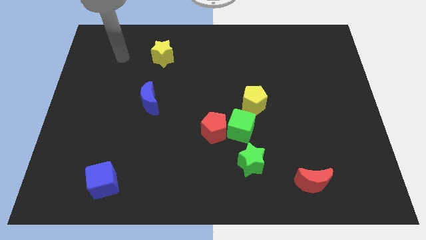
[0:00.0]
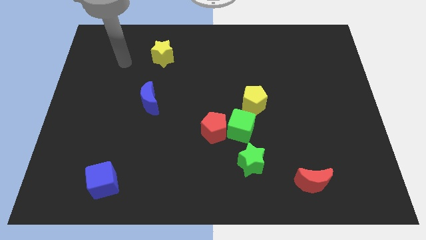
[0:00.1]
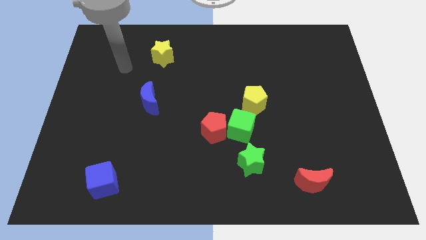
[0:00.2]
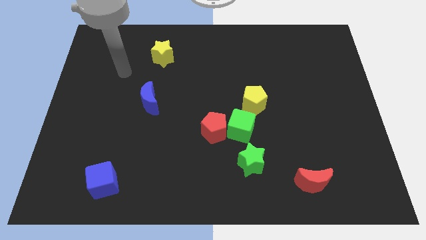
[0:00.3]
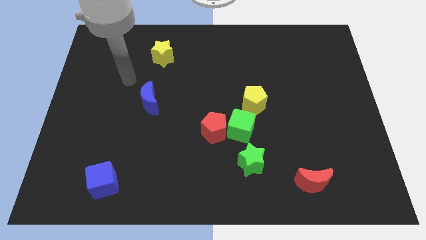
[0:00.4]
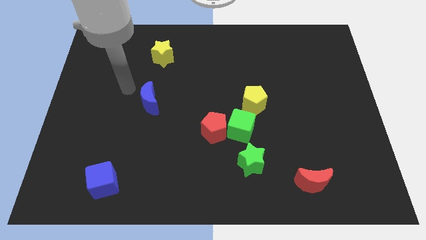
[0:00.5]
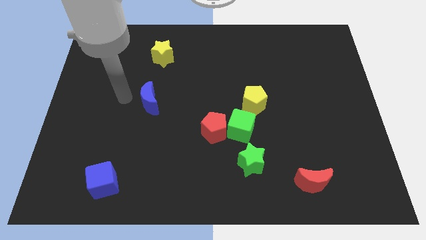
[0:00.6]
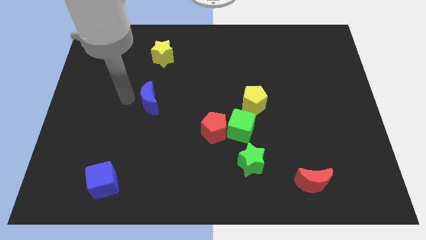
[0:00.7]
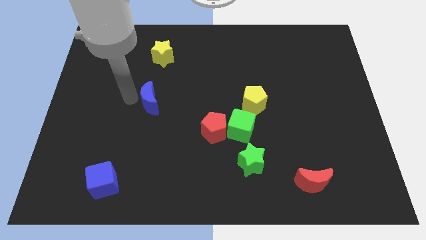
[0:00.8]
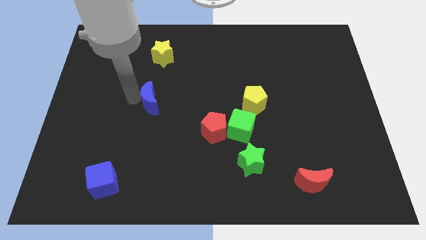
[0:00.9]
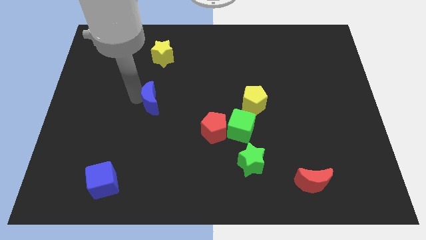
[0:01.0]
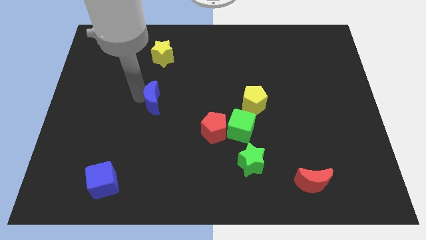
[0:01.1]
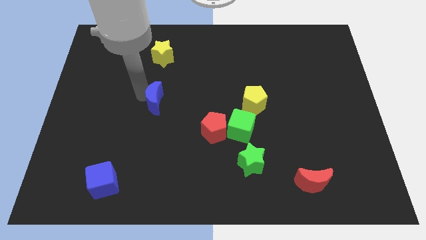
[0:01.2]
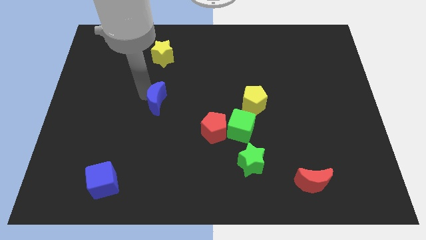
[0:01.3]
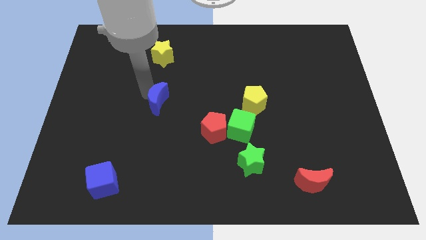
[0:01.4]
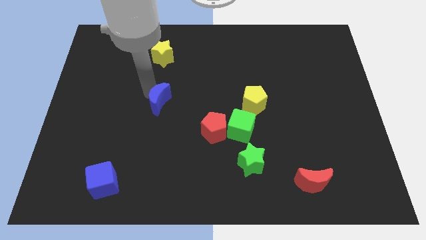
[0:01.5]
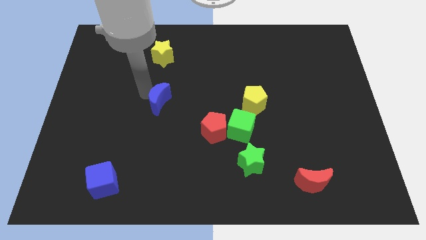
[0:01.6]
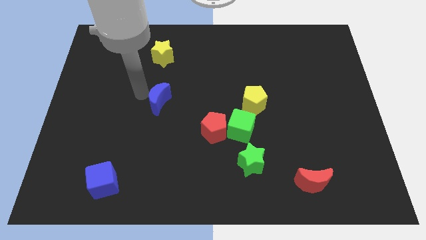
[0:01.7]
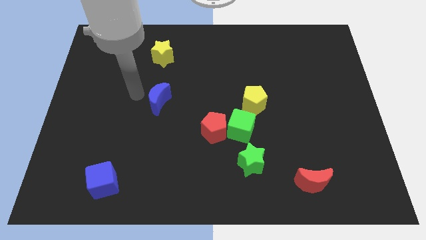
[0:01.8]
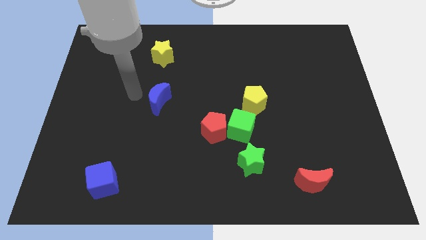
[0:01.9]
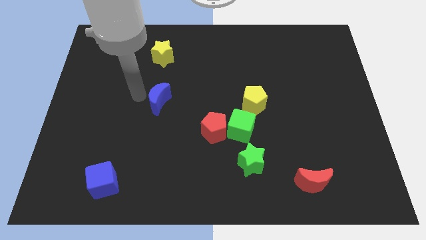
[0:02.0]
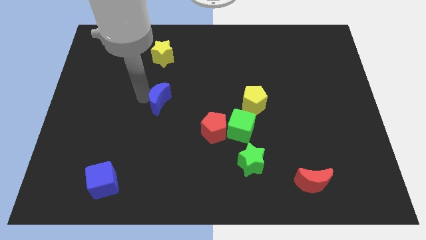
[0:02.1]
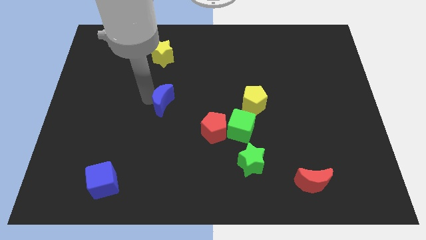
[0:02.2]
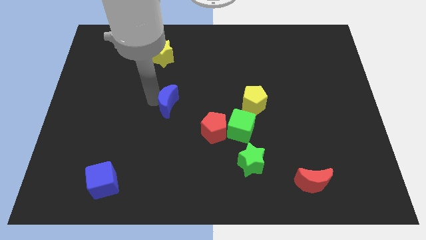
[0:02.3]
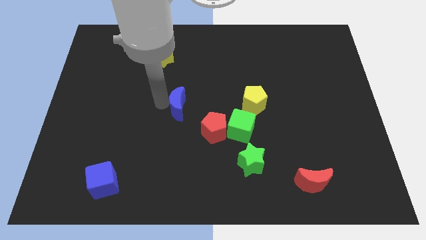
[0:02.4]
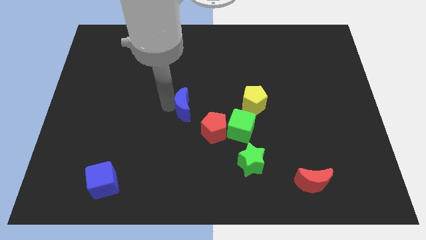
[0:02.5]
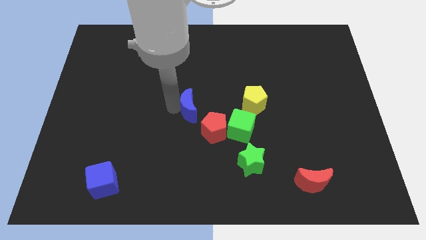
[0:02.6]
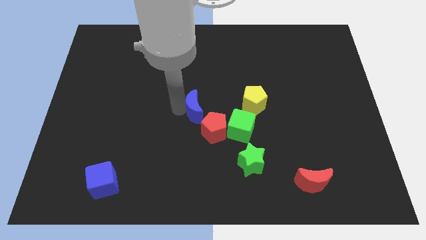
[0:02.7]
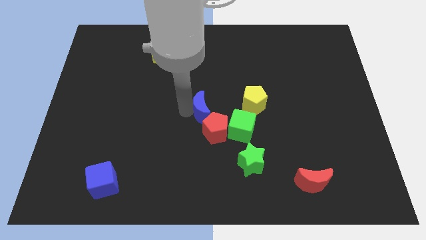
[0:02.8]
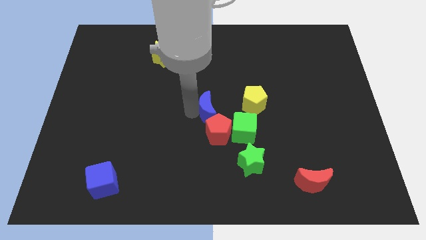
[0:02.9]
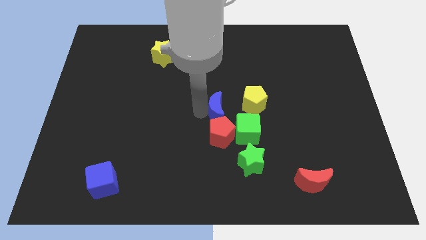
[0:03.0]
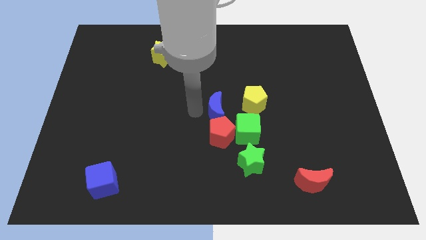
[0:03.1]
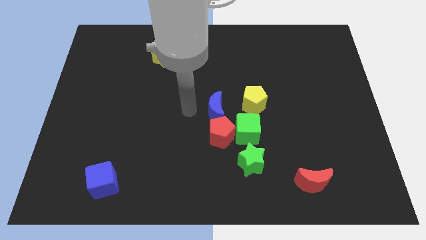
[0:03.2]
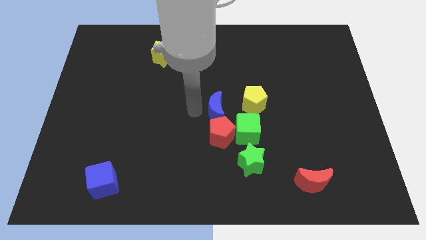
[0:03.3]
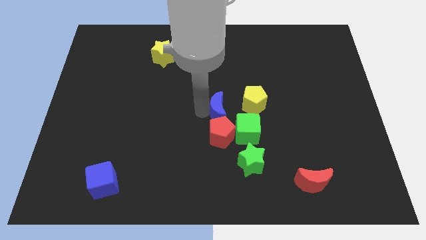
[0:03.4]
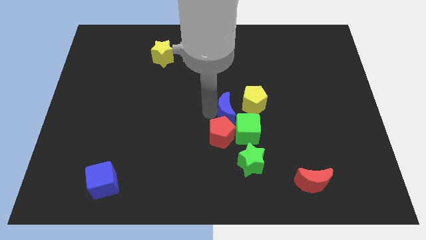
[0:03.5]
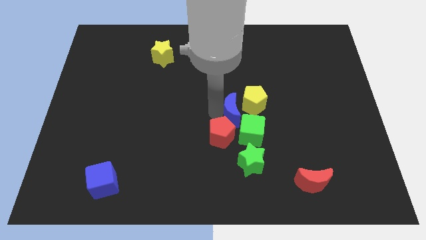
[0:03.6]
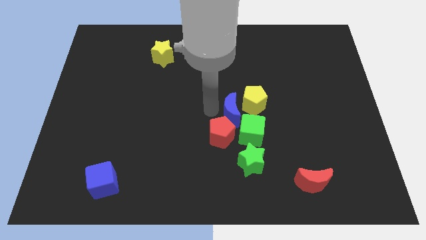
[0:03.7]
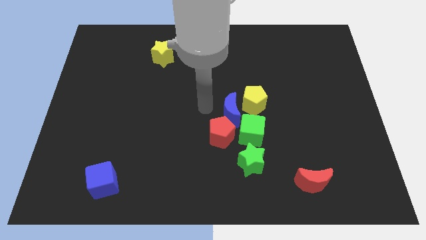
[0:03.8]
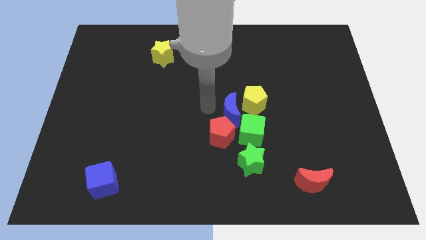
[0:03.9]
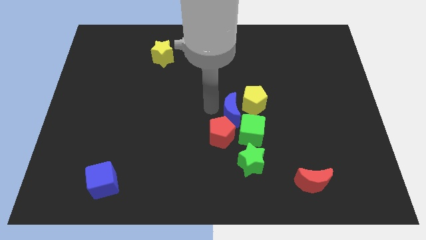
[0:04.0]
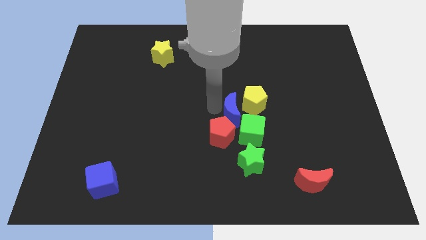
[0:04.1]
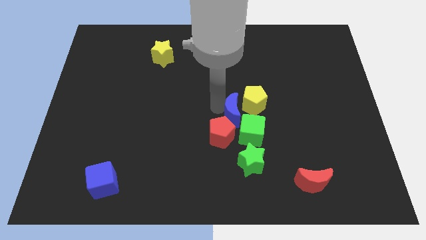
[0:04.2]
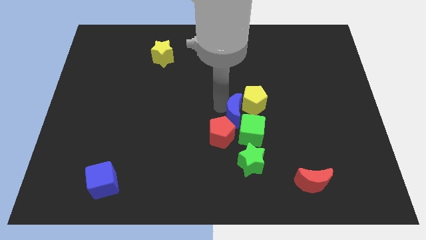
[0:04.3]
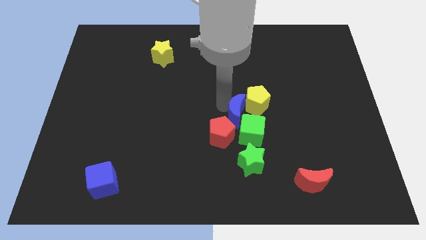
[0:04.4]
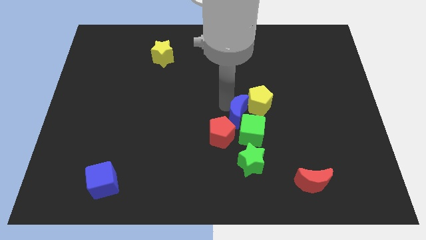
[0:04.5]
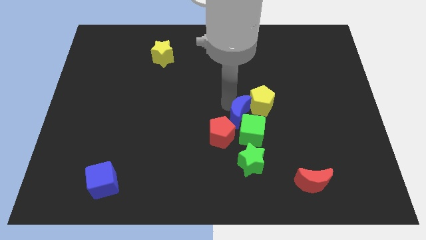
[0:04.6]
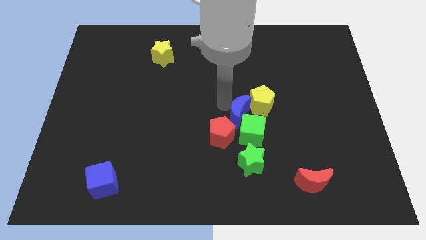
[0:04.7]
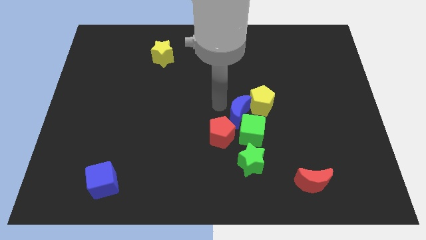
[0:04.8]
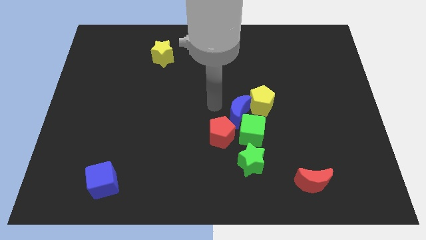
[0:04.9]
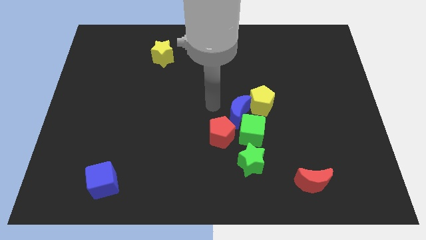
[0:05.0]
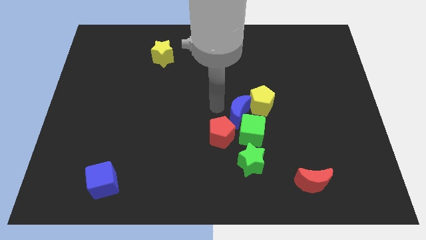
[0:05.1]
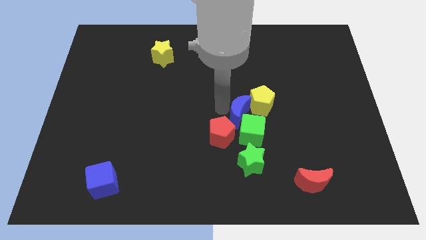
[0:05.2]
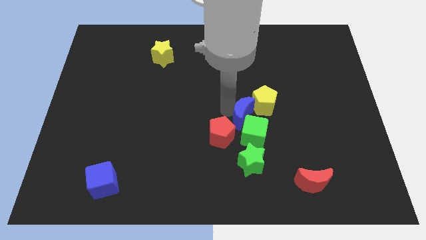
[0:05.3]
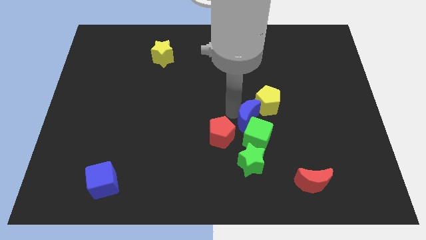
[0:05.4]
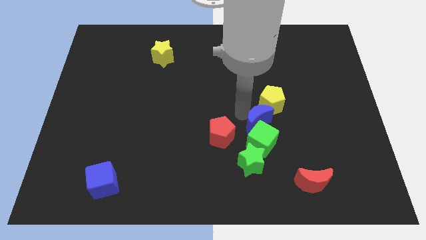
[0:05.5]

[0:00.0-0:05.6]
slide the blue moon to the bottom of the yellow pentagon

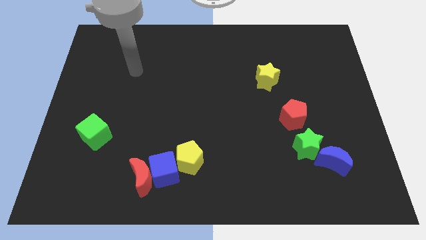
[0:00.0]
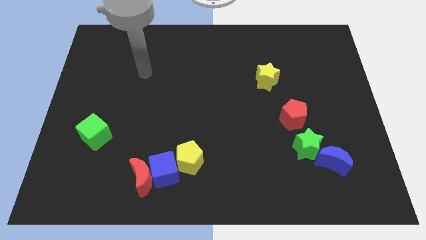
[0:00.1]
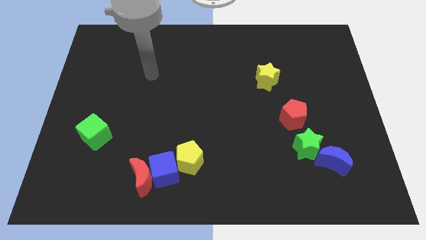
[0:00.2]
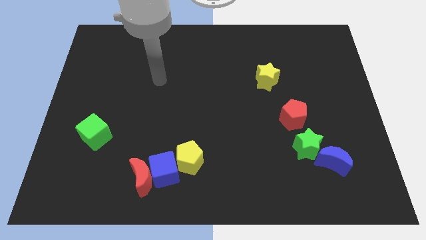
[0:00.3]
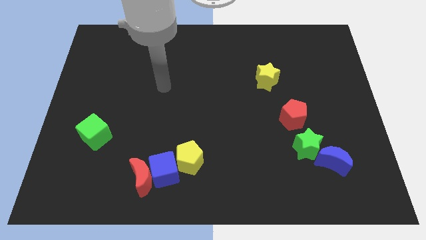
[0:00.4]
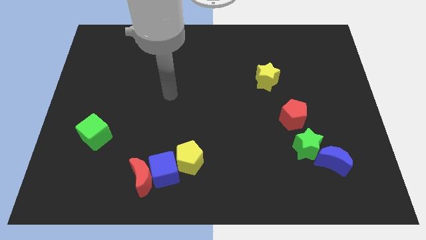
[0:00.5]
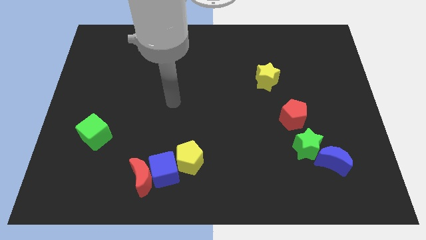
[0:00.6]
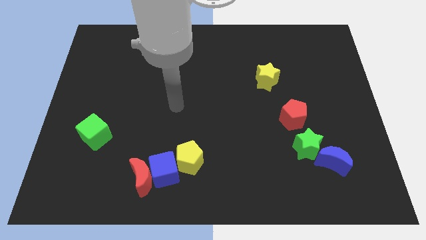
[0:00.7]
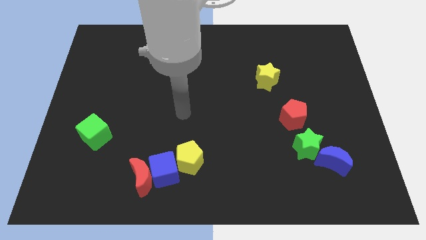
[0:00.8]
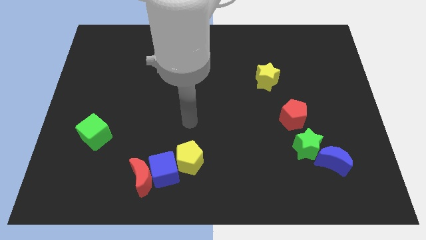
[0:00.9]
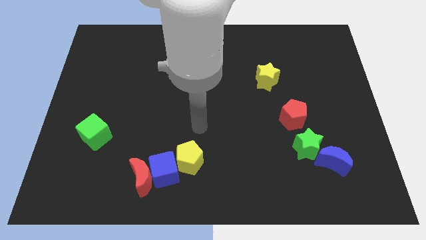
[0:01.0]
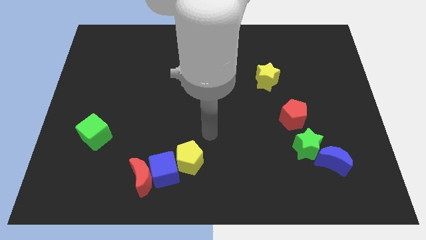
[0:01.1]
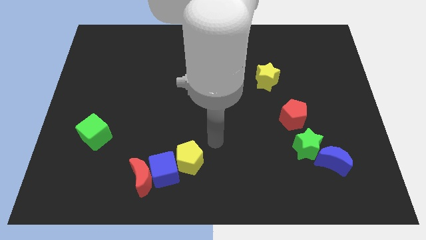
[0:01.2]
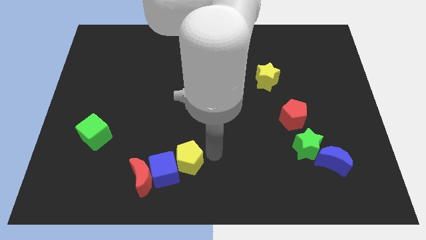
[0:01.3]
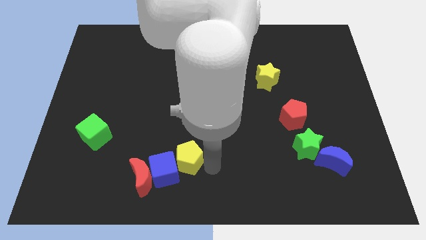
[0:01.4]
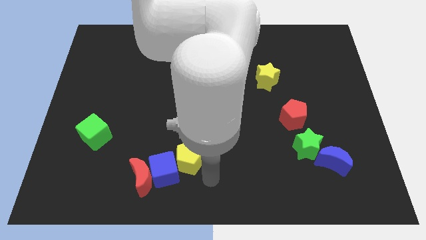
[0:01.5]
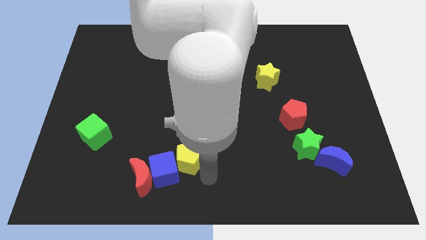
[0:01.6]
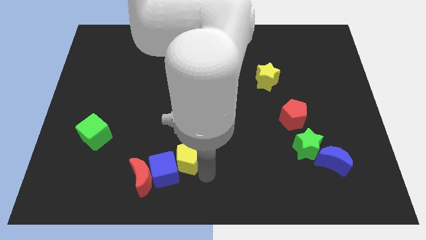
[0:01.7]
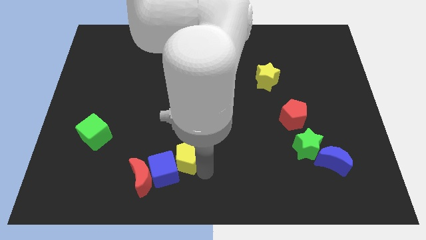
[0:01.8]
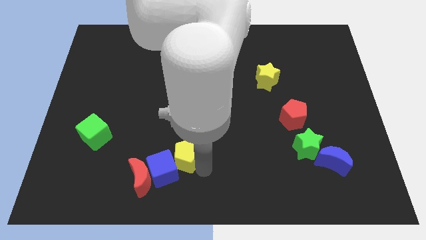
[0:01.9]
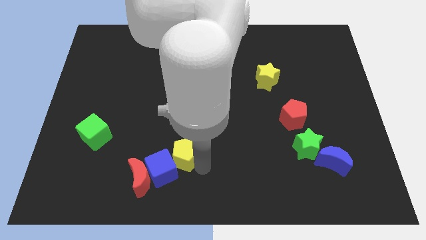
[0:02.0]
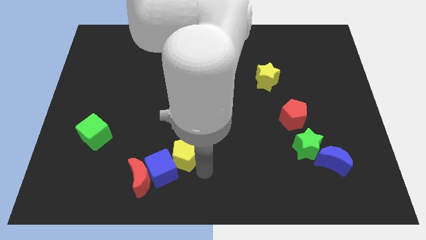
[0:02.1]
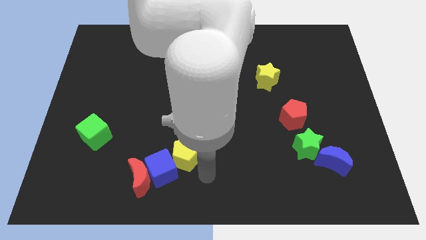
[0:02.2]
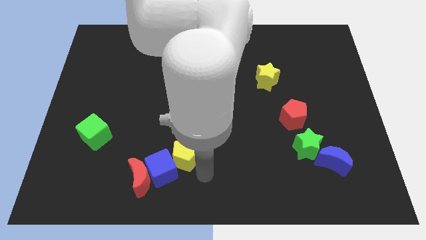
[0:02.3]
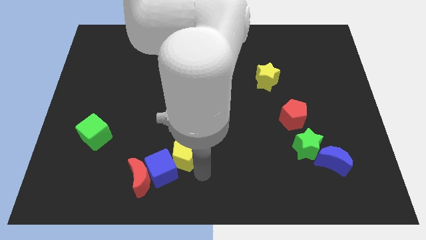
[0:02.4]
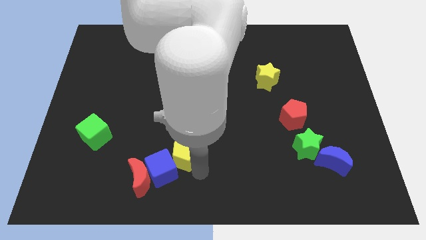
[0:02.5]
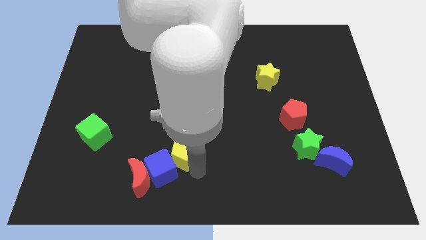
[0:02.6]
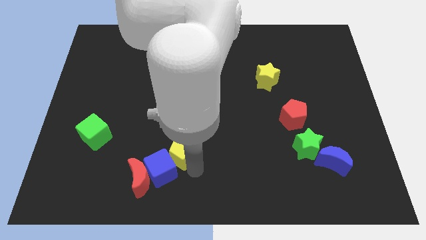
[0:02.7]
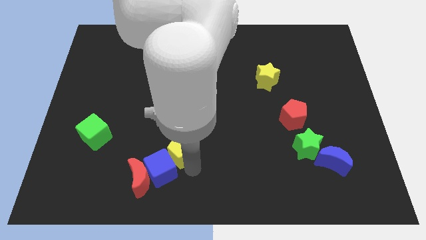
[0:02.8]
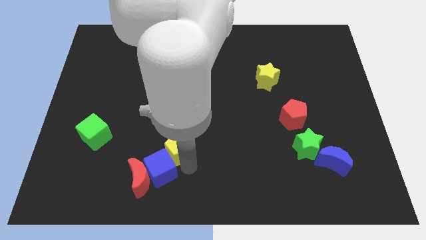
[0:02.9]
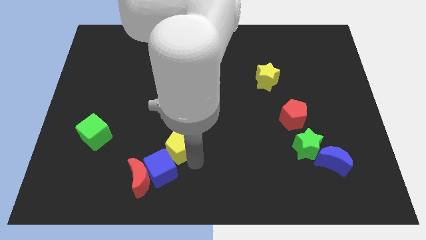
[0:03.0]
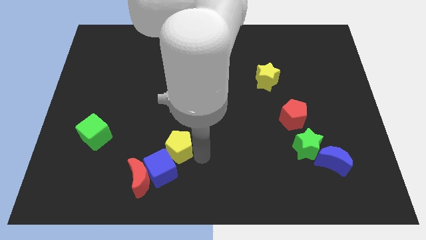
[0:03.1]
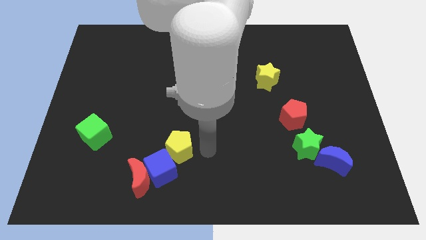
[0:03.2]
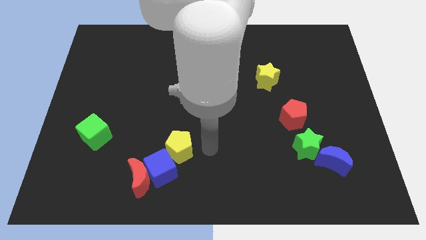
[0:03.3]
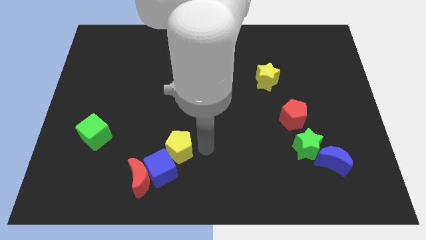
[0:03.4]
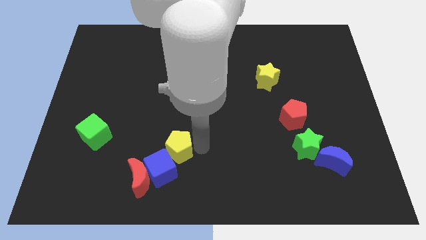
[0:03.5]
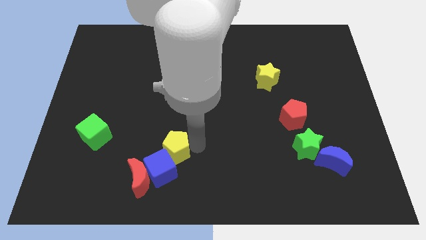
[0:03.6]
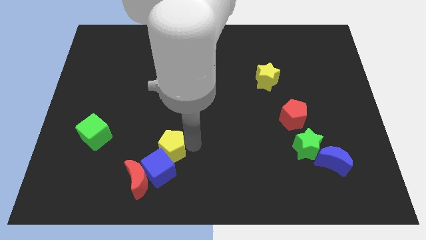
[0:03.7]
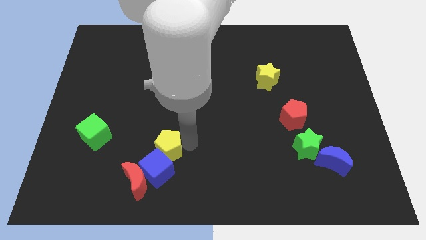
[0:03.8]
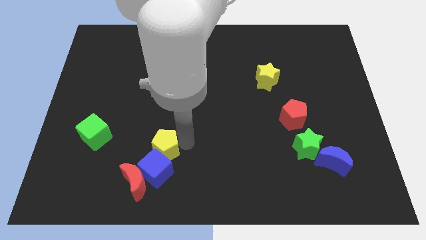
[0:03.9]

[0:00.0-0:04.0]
slide the yellow pentagon to the top left side of the blue cube
